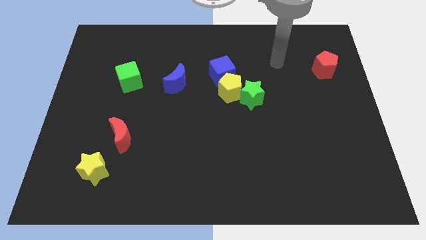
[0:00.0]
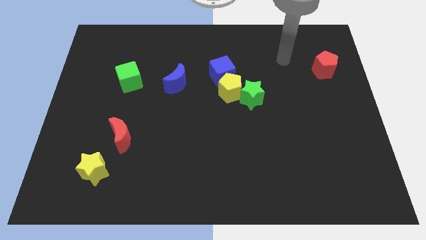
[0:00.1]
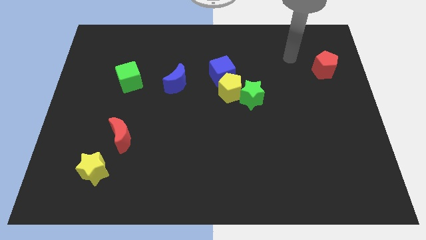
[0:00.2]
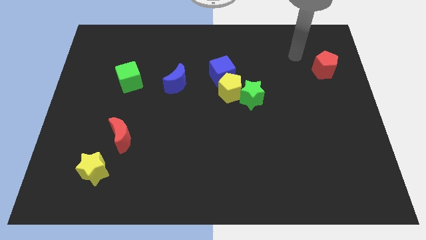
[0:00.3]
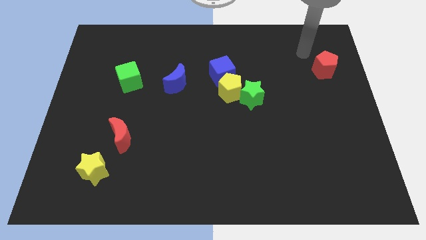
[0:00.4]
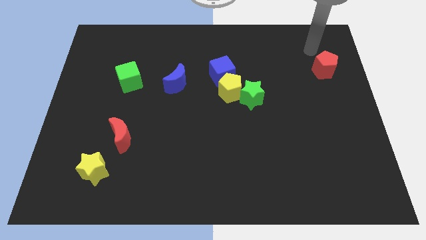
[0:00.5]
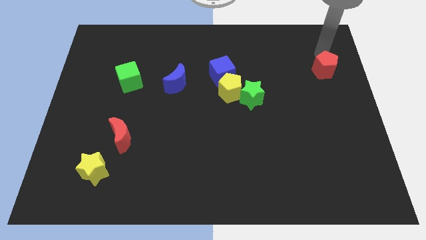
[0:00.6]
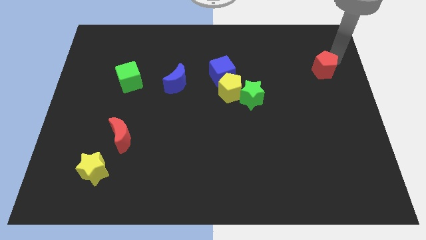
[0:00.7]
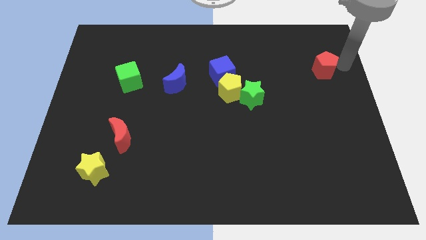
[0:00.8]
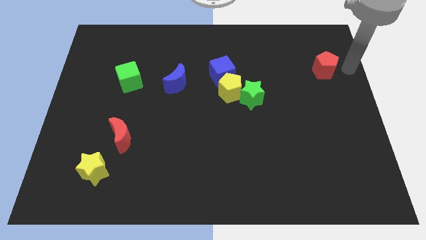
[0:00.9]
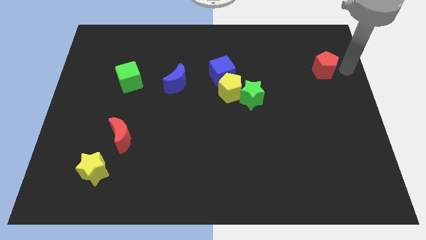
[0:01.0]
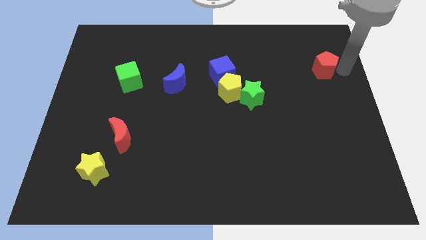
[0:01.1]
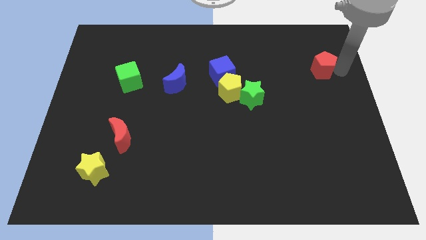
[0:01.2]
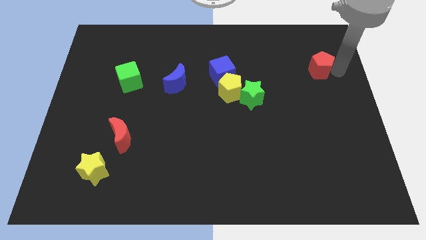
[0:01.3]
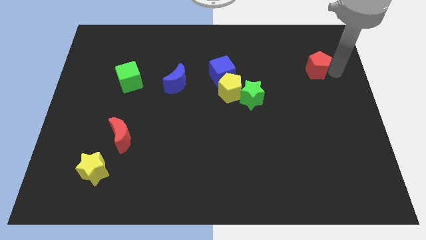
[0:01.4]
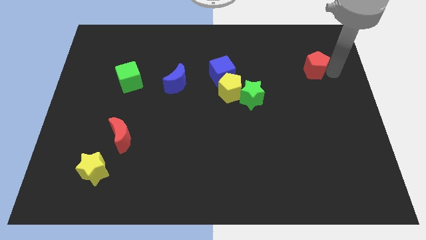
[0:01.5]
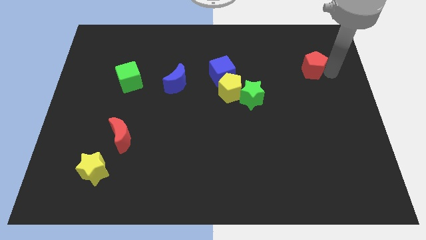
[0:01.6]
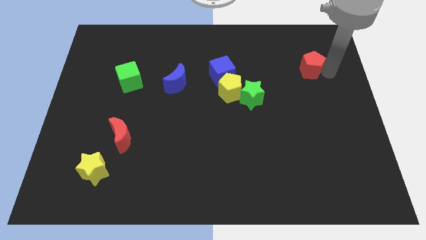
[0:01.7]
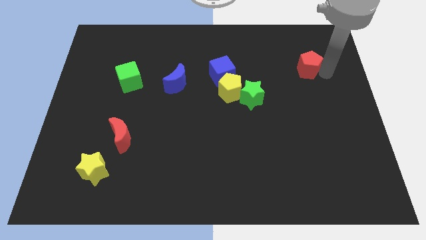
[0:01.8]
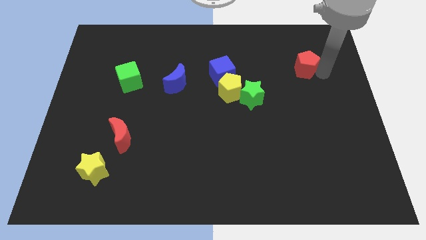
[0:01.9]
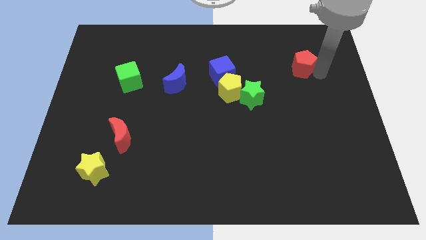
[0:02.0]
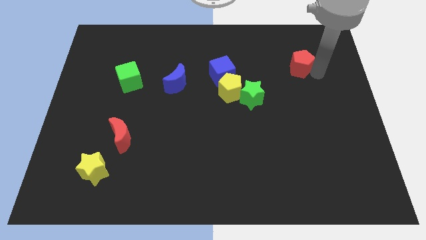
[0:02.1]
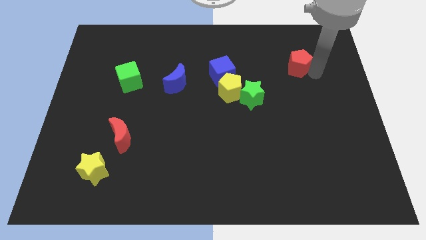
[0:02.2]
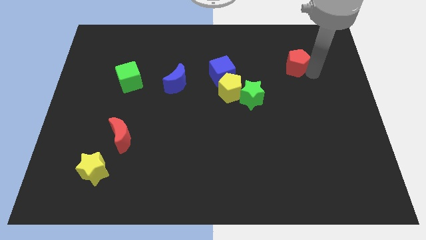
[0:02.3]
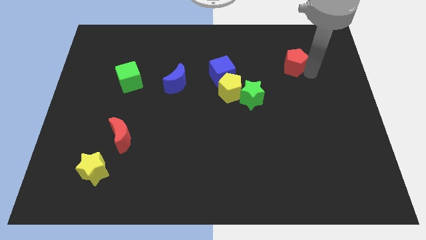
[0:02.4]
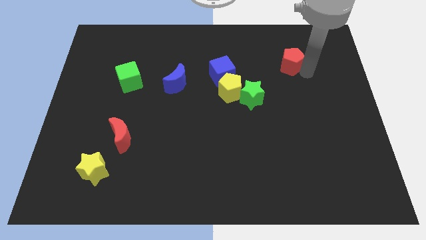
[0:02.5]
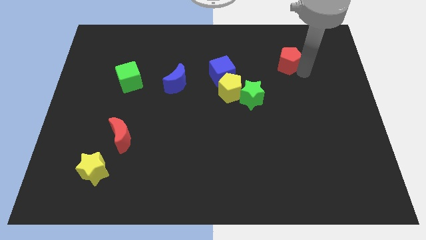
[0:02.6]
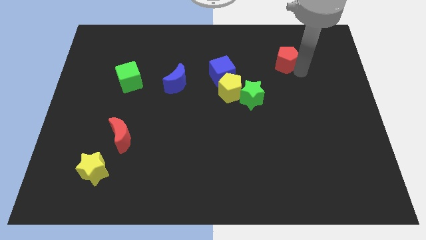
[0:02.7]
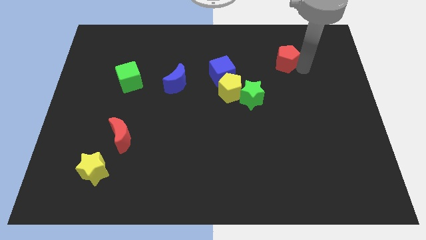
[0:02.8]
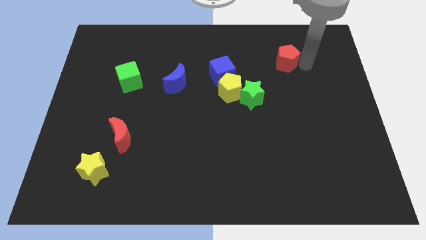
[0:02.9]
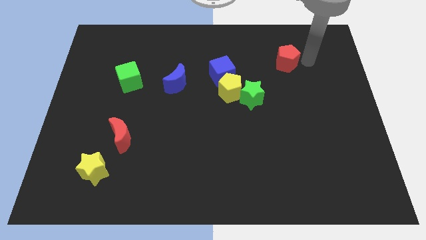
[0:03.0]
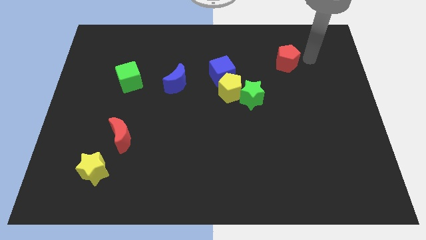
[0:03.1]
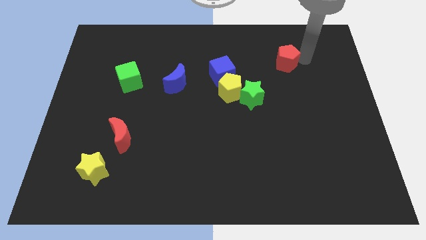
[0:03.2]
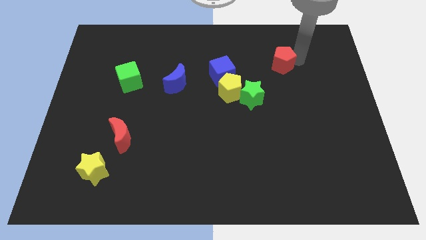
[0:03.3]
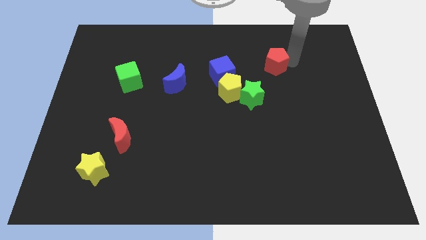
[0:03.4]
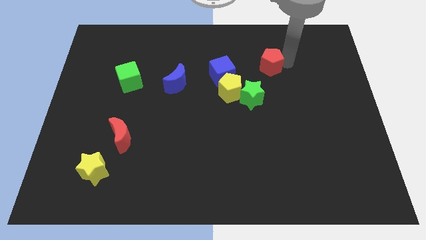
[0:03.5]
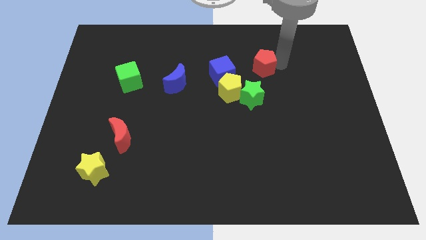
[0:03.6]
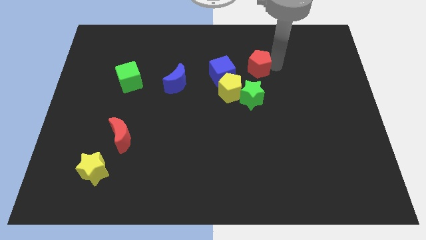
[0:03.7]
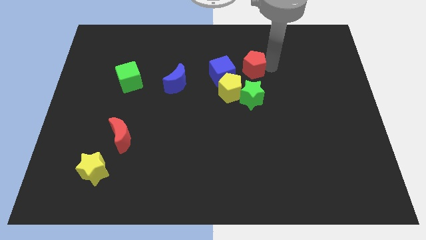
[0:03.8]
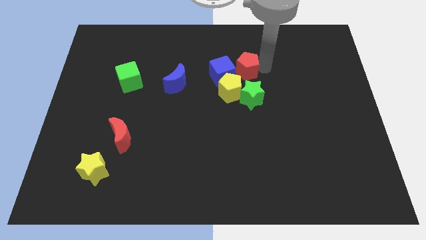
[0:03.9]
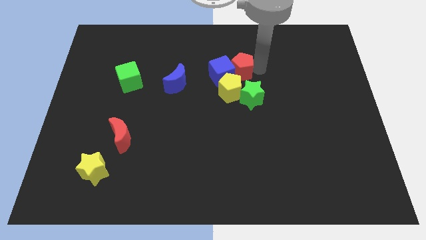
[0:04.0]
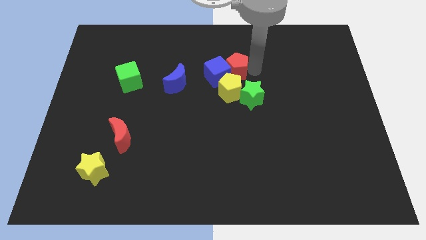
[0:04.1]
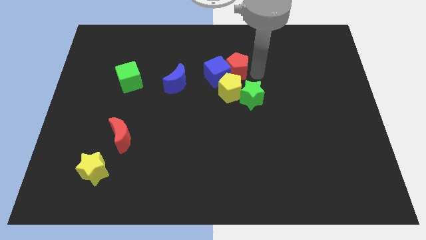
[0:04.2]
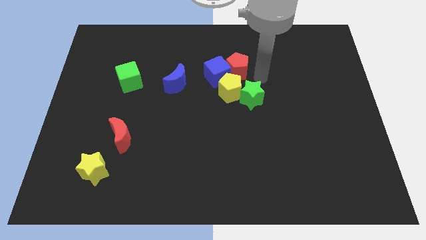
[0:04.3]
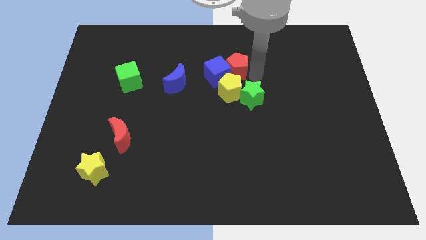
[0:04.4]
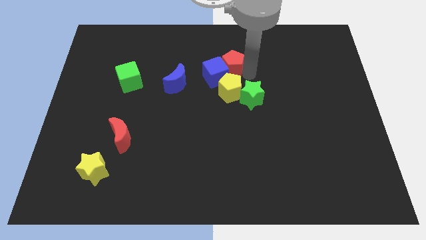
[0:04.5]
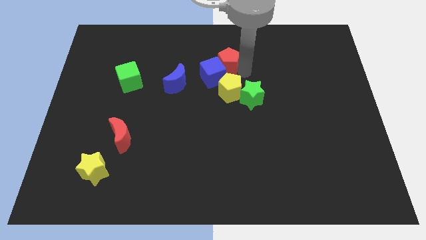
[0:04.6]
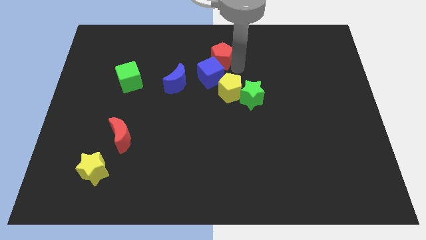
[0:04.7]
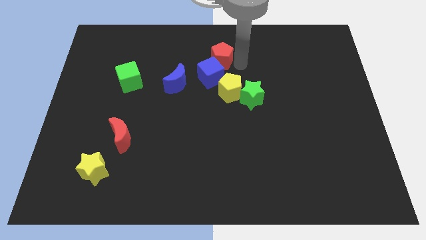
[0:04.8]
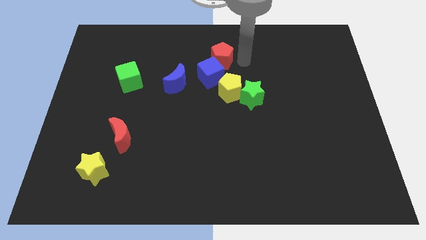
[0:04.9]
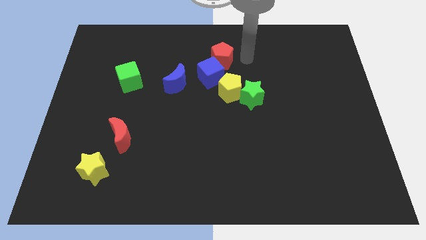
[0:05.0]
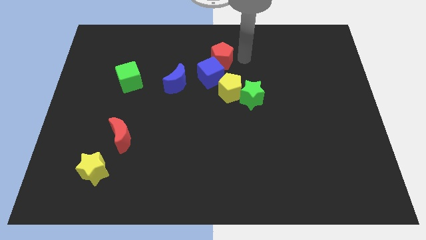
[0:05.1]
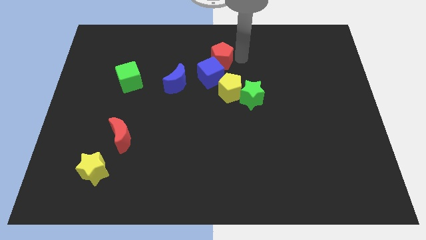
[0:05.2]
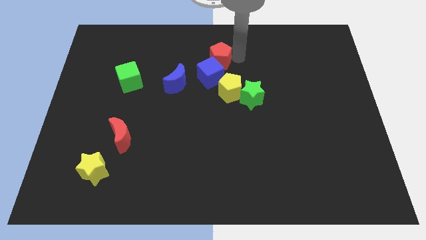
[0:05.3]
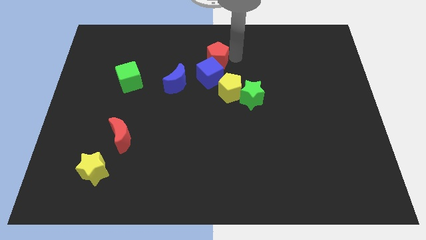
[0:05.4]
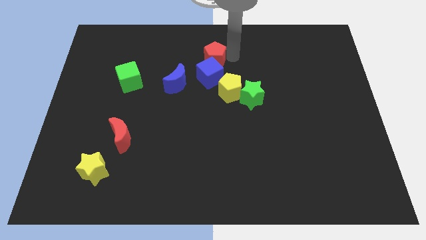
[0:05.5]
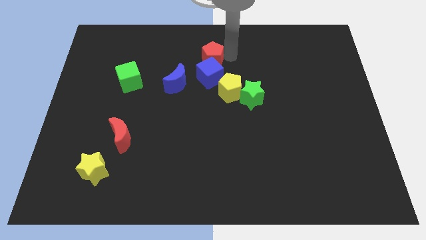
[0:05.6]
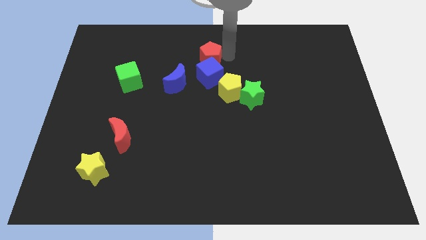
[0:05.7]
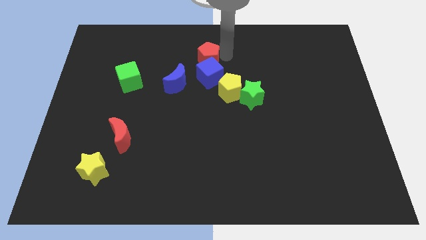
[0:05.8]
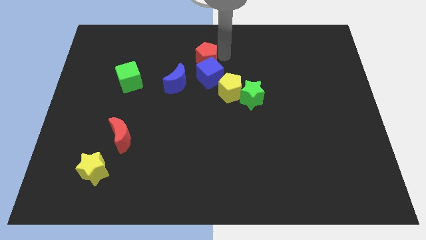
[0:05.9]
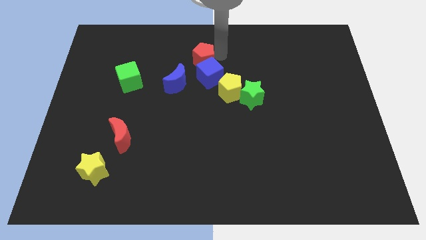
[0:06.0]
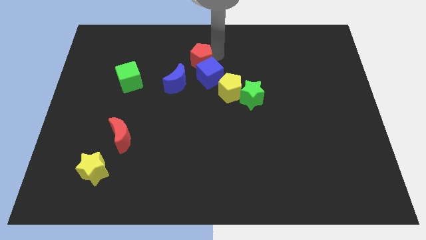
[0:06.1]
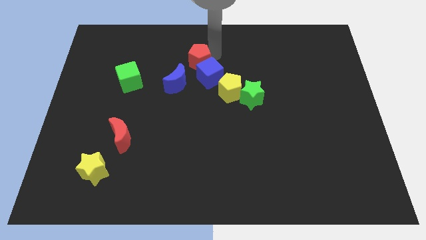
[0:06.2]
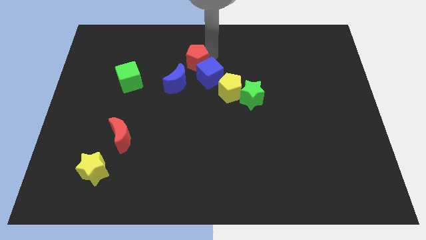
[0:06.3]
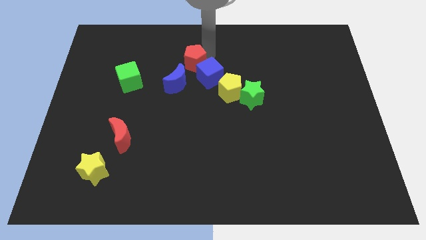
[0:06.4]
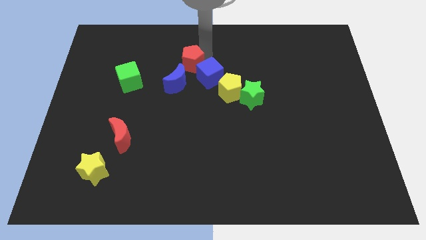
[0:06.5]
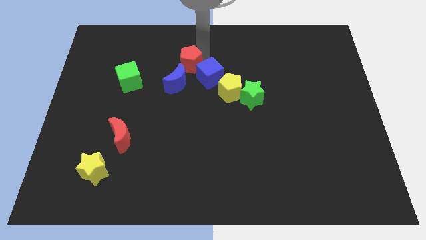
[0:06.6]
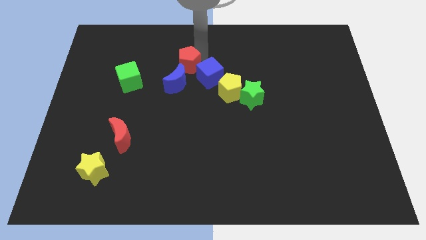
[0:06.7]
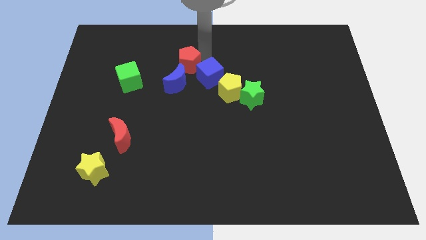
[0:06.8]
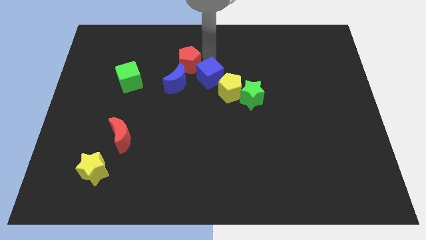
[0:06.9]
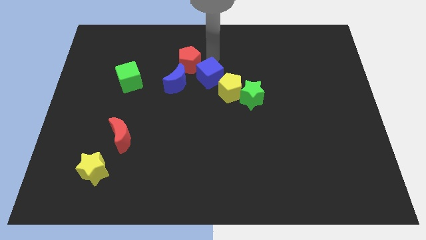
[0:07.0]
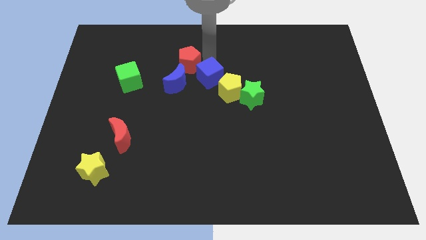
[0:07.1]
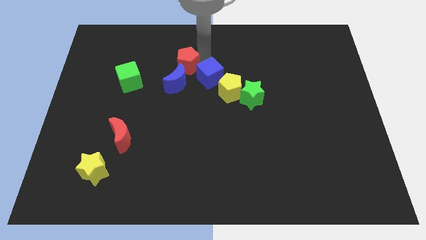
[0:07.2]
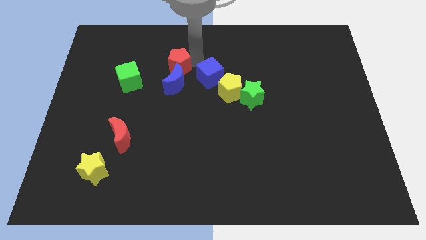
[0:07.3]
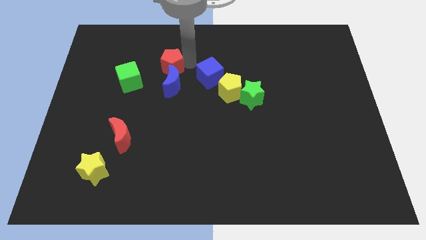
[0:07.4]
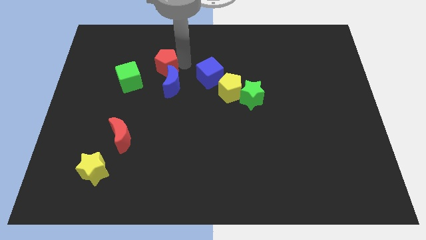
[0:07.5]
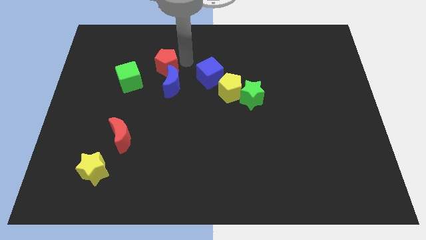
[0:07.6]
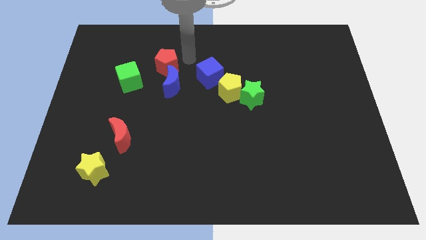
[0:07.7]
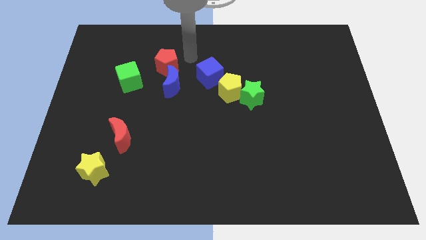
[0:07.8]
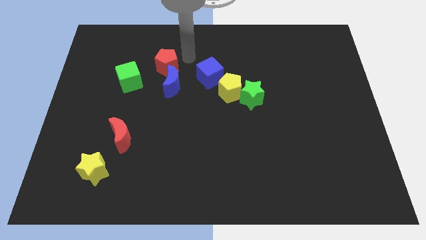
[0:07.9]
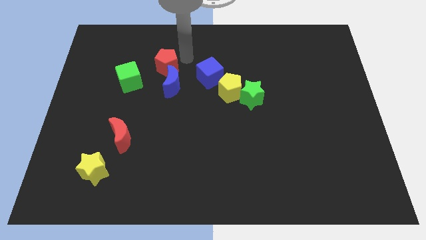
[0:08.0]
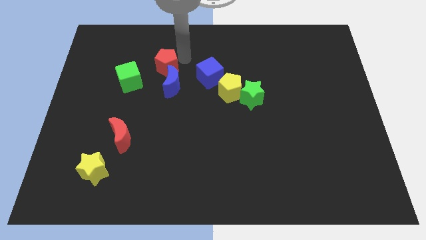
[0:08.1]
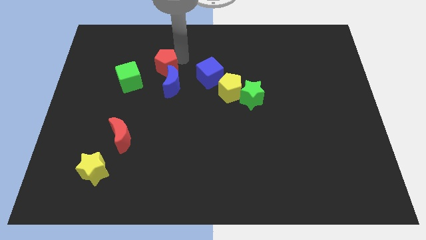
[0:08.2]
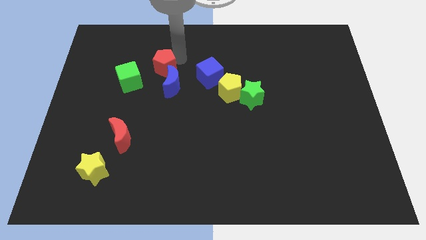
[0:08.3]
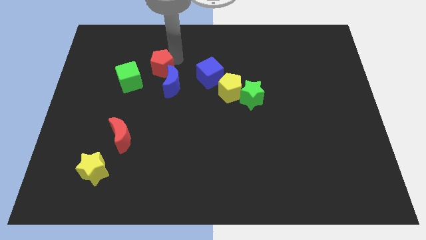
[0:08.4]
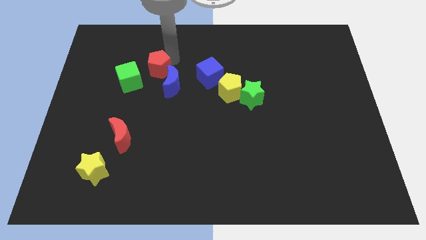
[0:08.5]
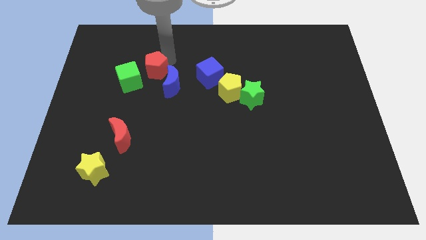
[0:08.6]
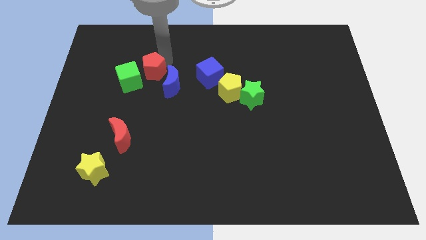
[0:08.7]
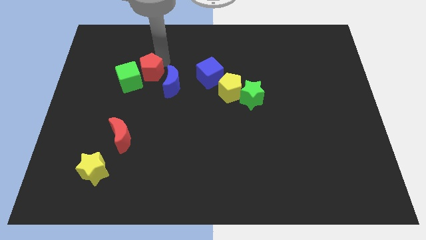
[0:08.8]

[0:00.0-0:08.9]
push the red pentagon next to the green cube
